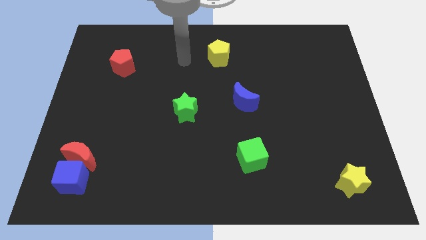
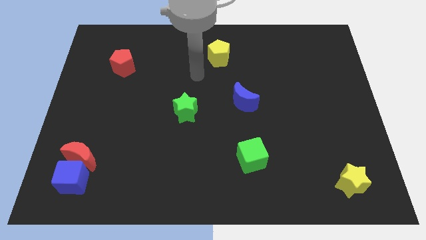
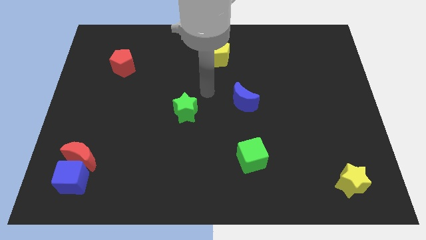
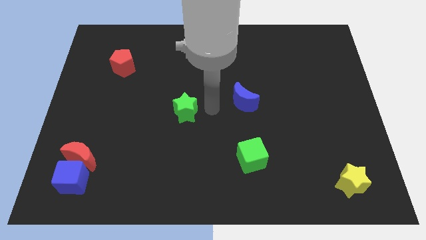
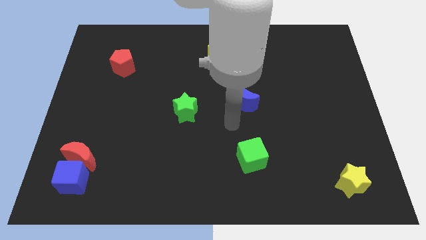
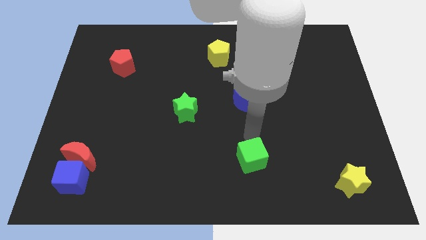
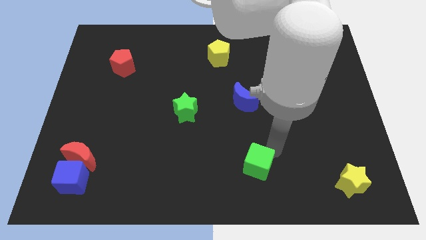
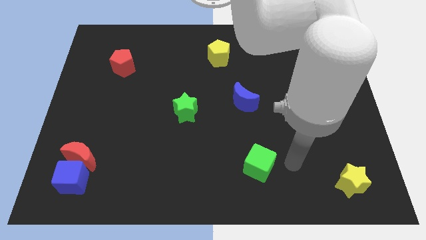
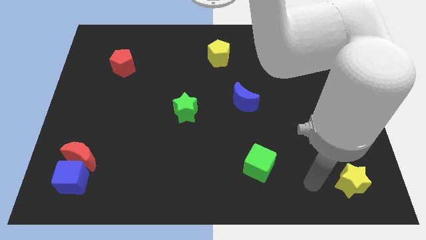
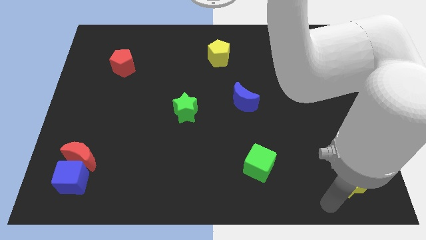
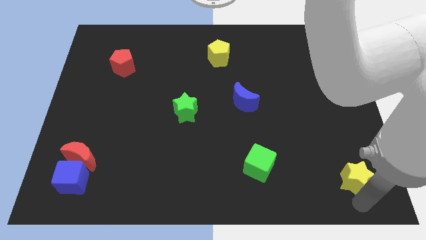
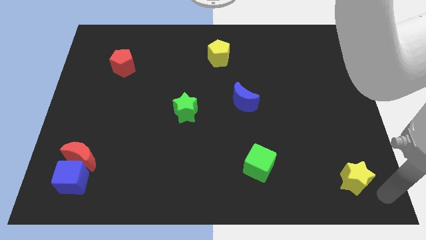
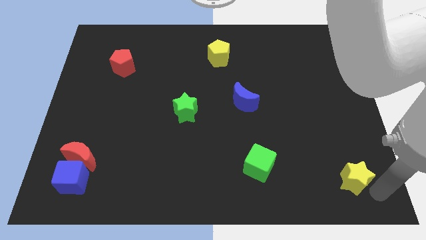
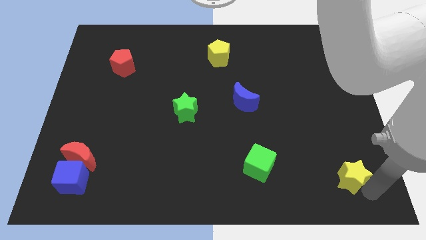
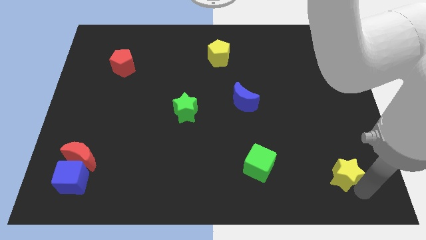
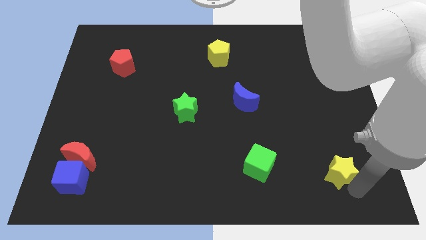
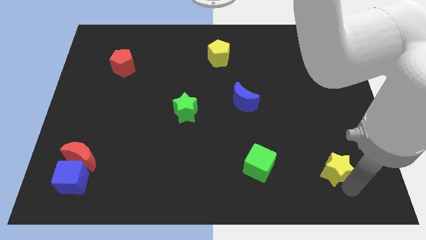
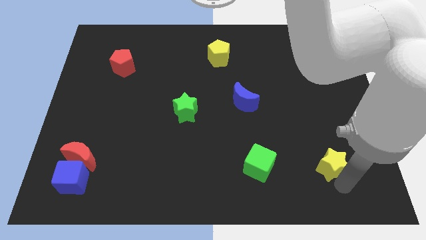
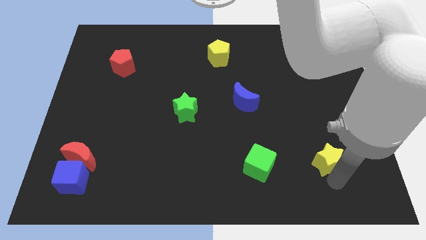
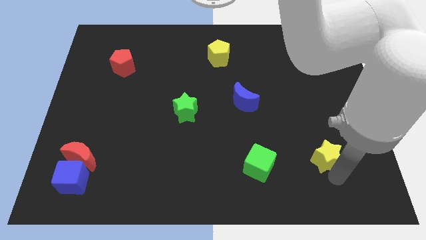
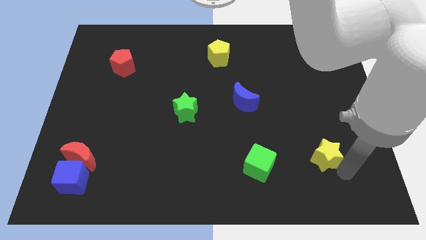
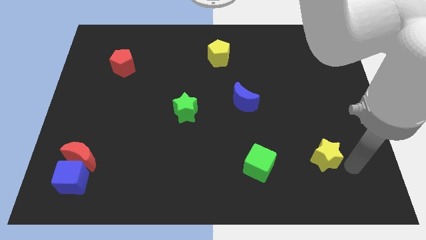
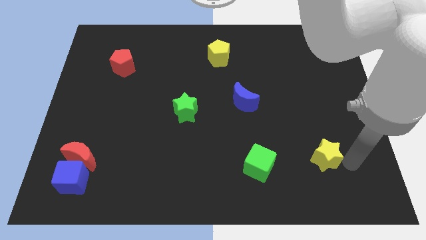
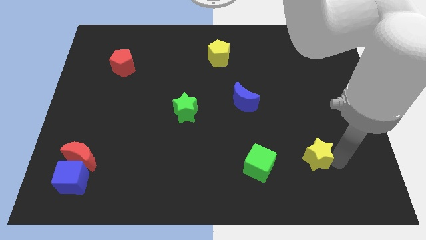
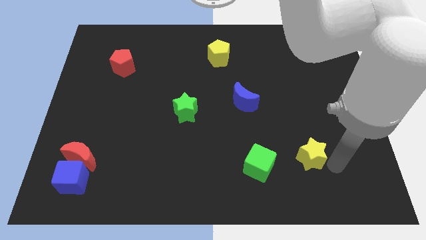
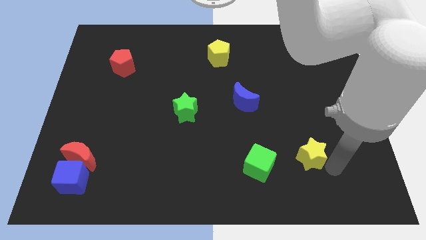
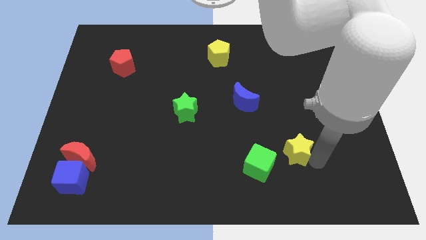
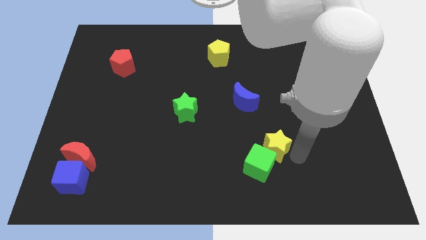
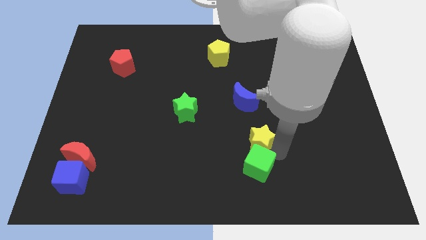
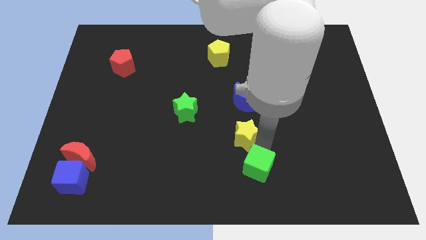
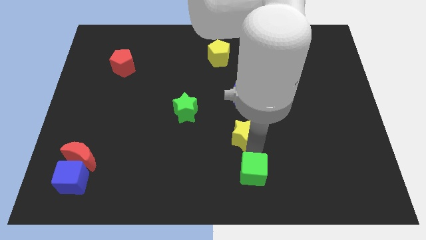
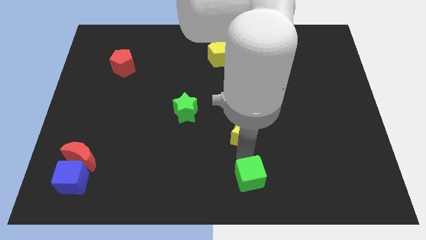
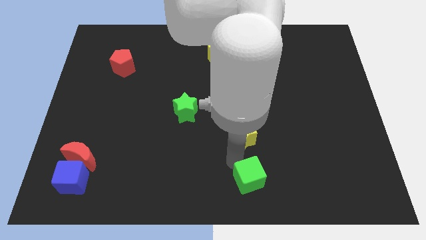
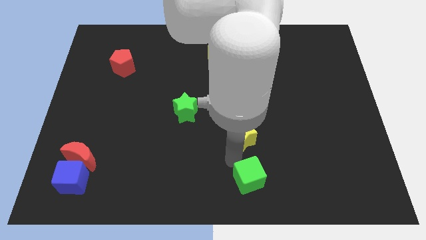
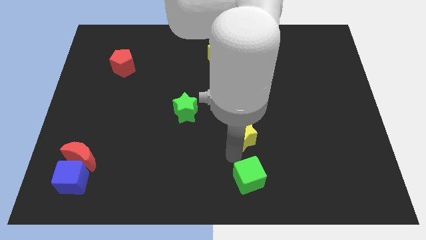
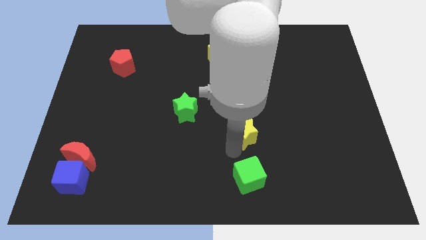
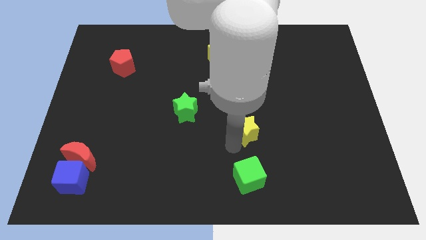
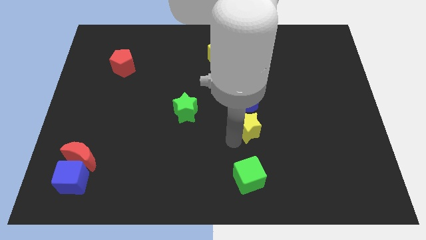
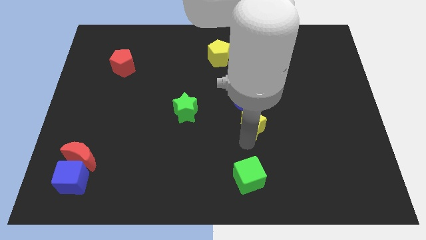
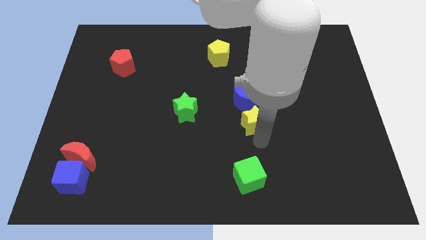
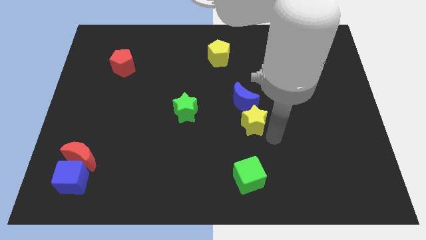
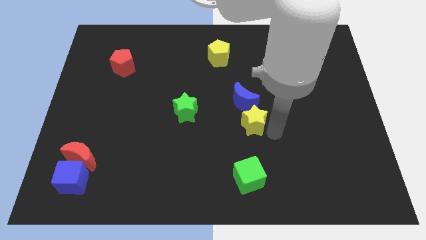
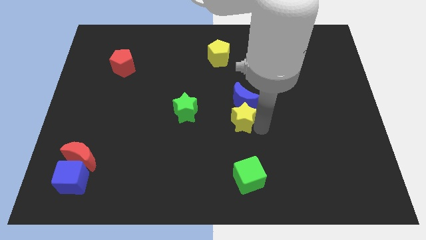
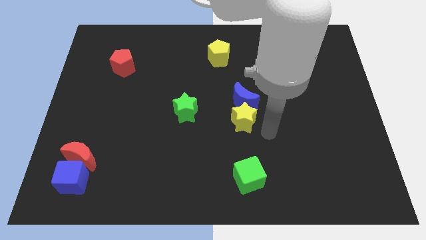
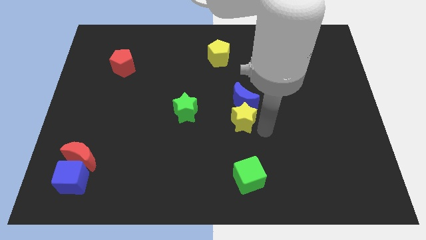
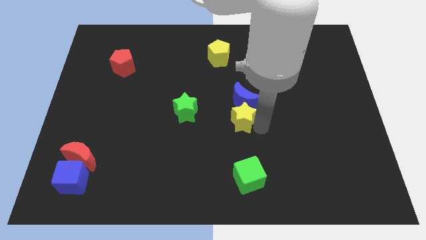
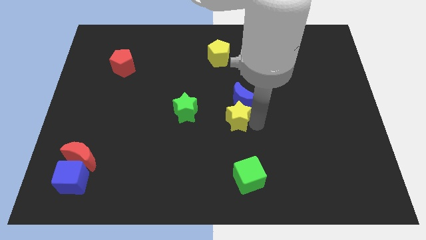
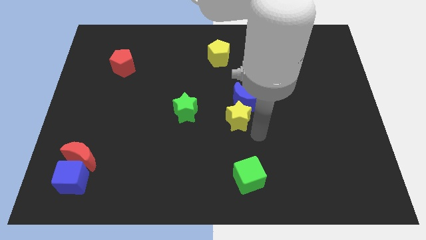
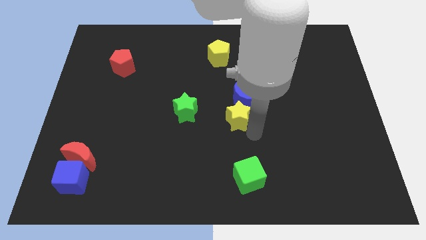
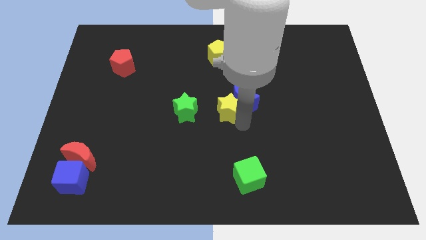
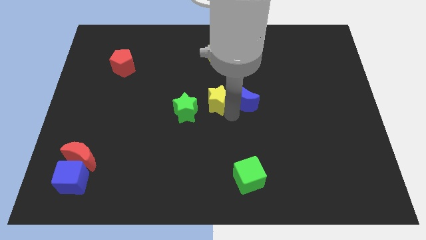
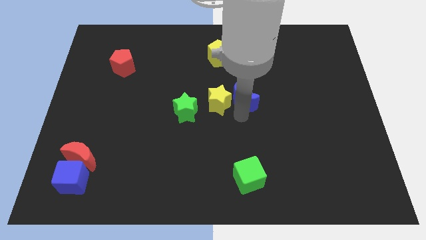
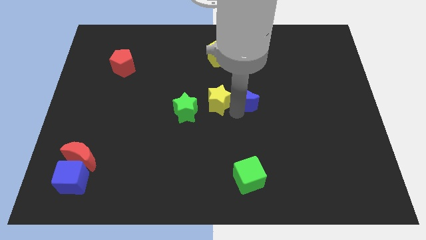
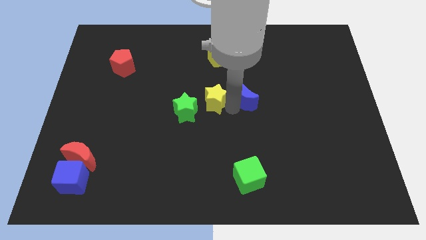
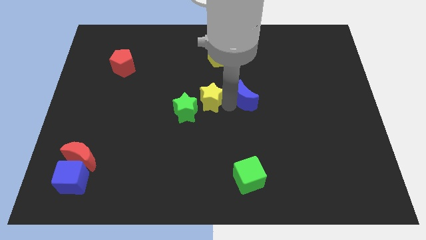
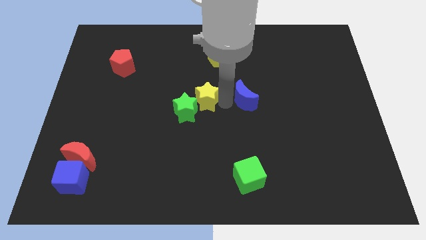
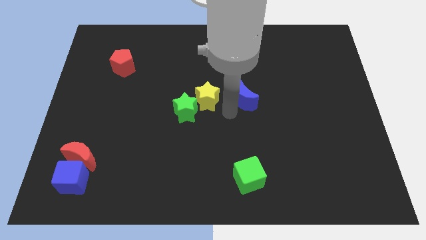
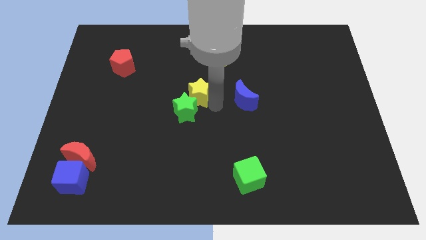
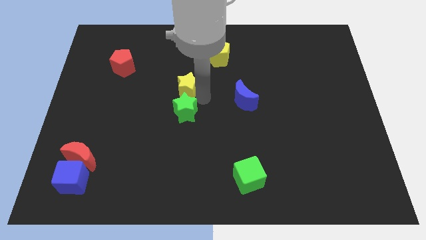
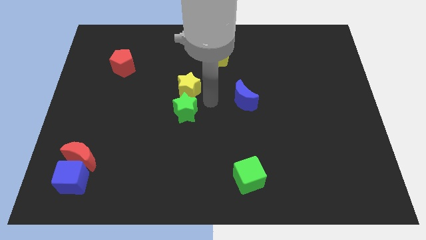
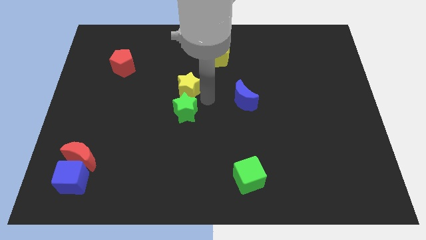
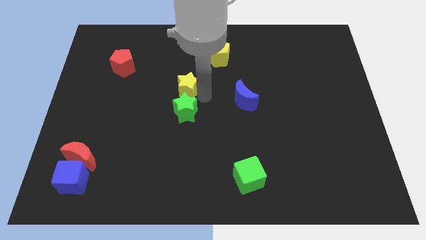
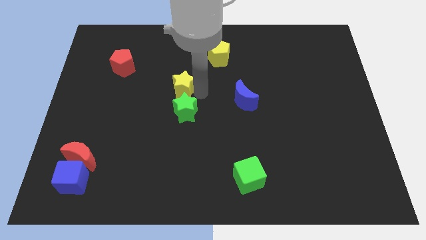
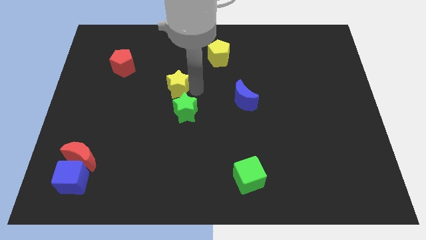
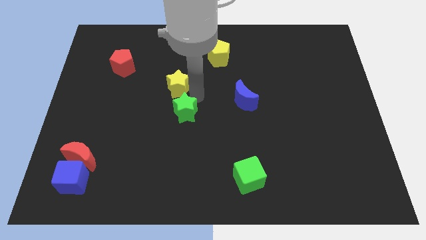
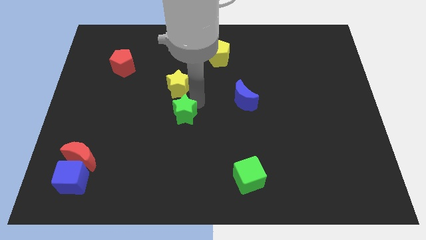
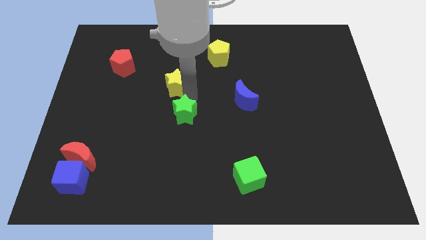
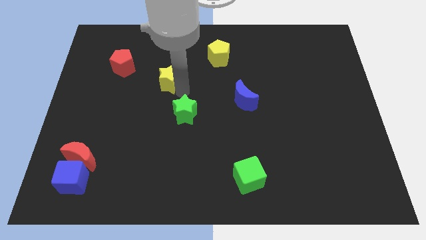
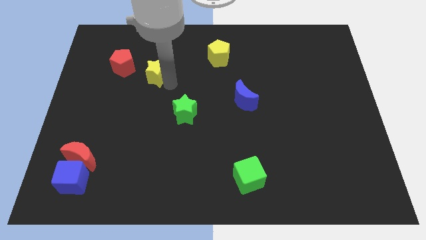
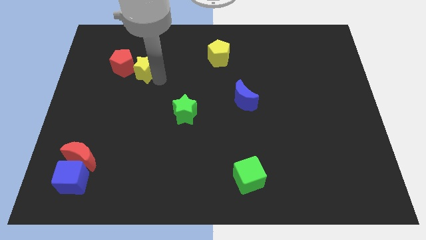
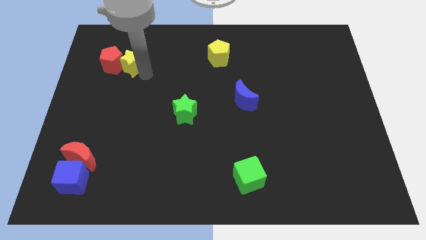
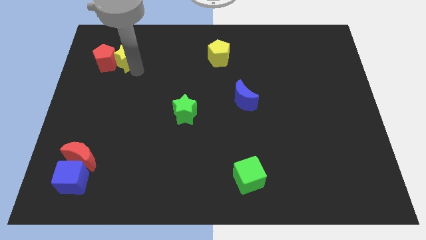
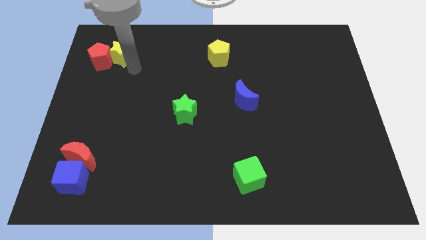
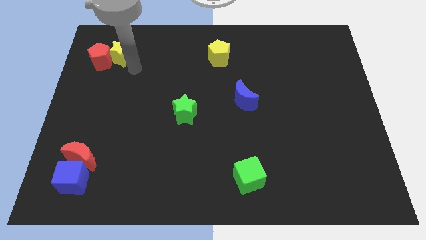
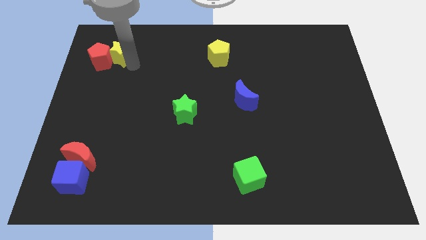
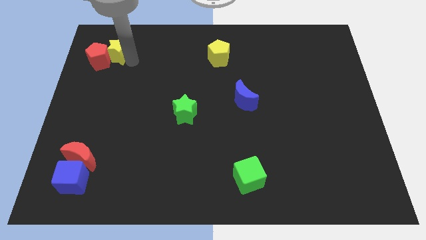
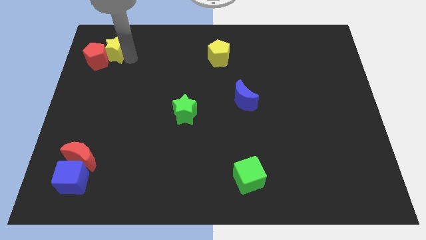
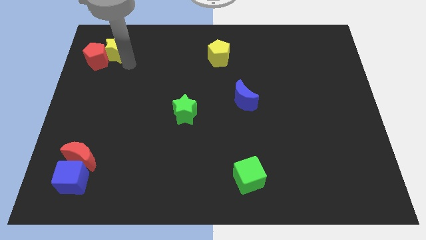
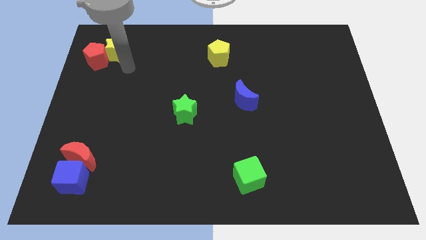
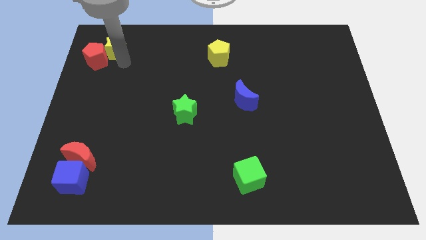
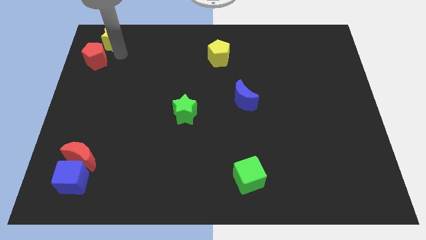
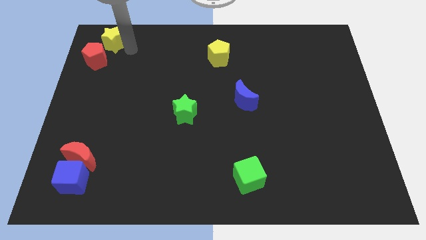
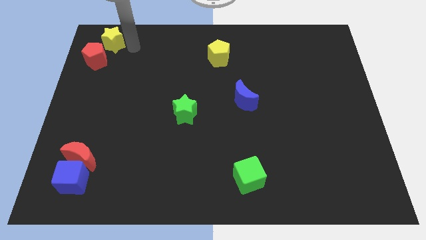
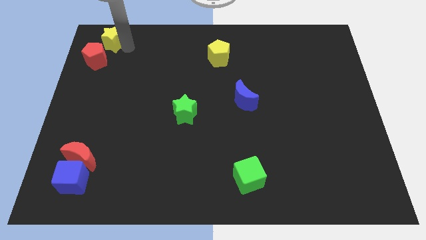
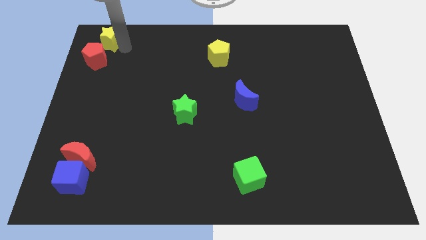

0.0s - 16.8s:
put the yellow star to the top left corner
